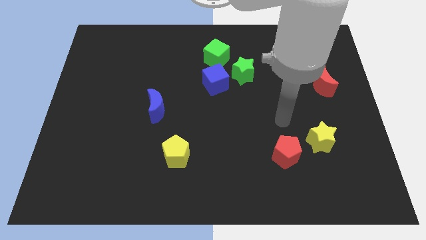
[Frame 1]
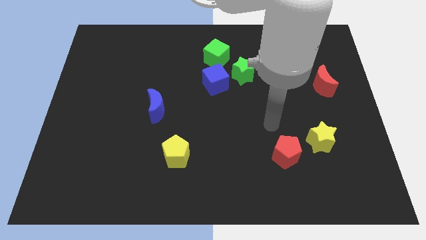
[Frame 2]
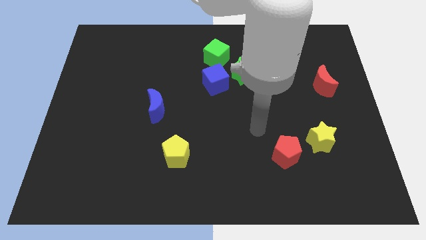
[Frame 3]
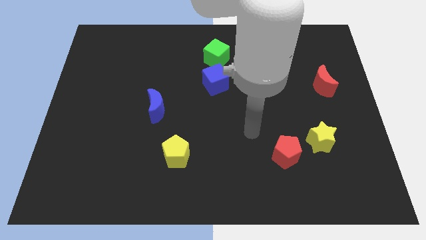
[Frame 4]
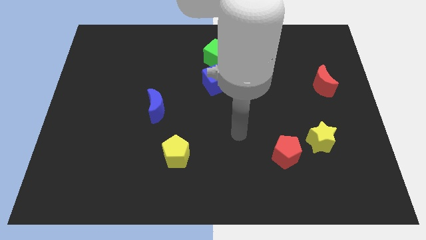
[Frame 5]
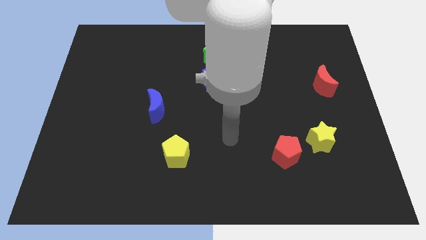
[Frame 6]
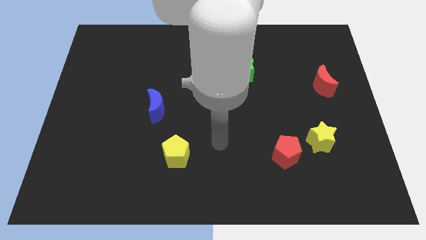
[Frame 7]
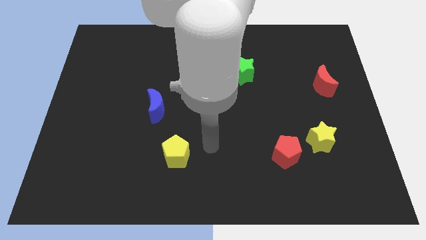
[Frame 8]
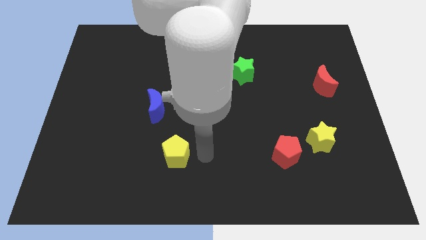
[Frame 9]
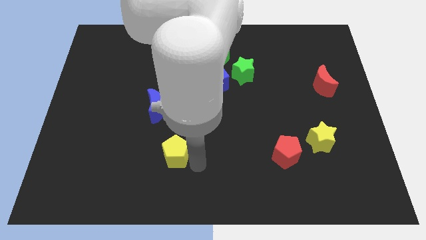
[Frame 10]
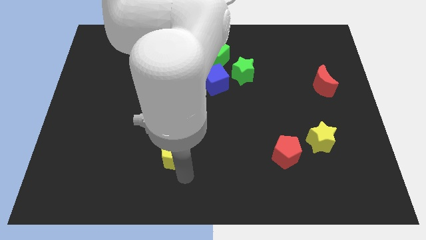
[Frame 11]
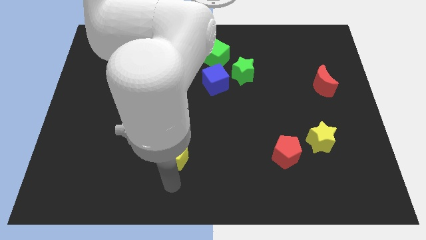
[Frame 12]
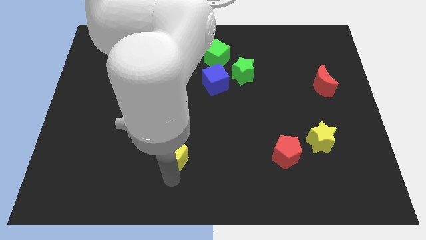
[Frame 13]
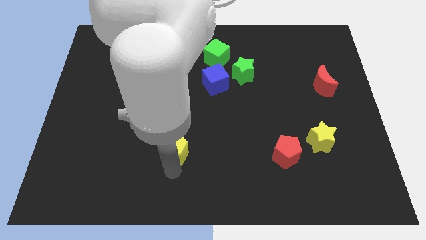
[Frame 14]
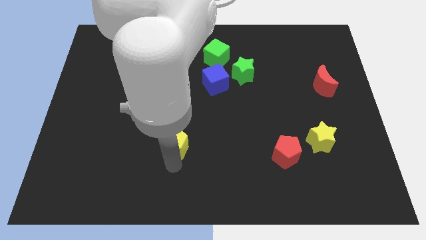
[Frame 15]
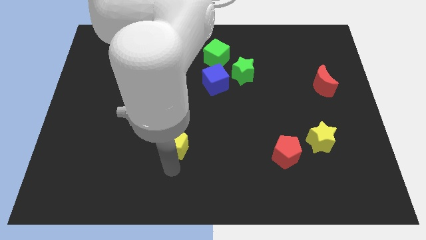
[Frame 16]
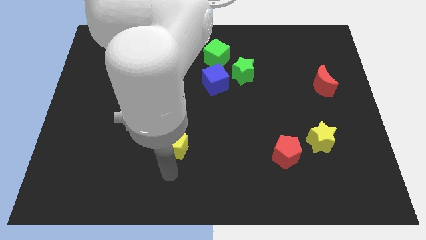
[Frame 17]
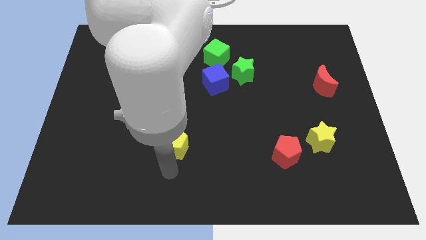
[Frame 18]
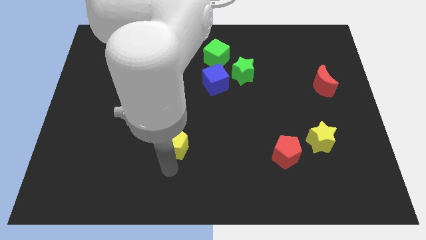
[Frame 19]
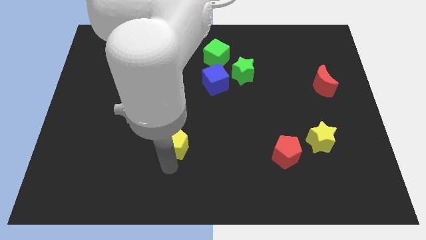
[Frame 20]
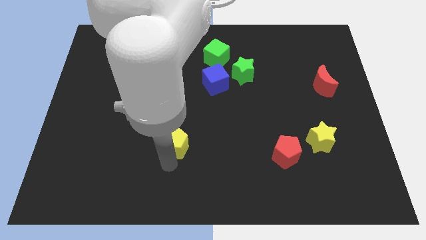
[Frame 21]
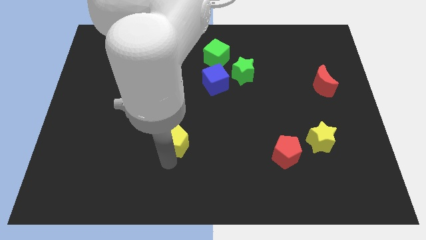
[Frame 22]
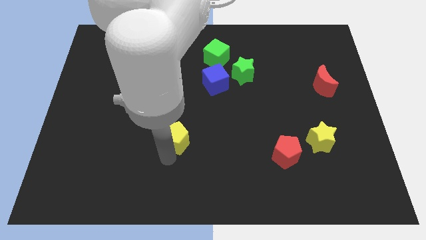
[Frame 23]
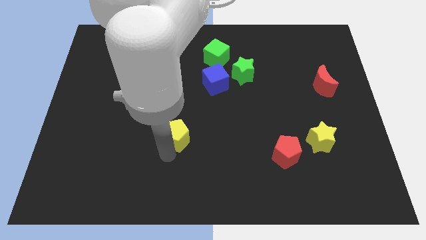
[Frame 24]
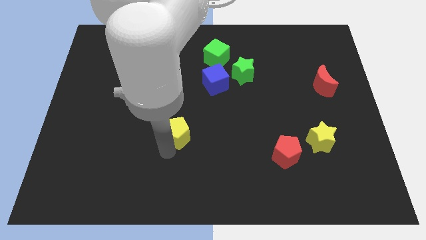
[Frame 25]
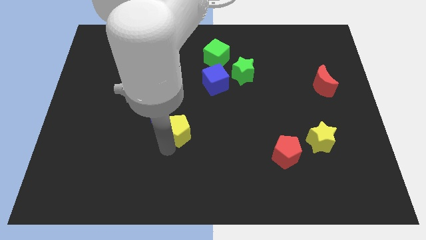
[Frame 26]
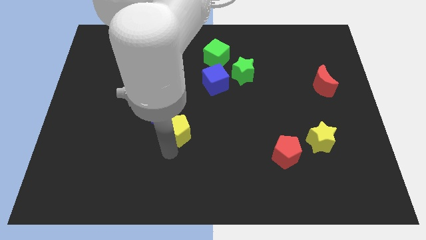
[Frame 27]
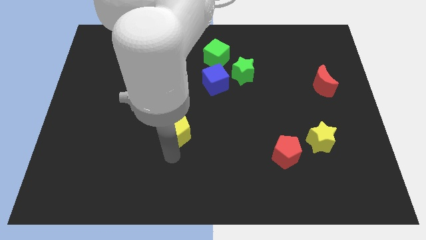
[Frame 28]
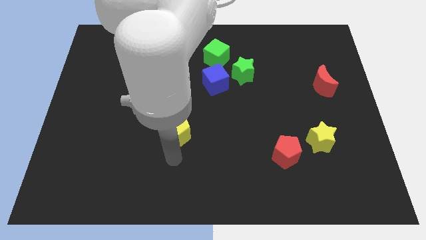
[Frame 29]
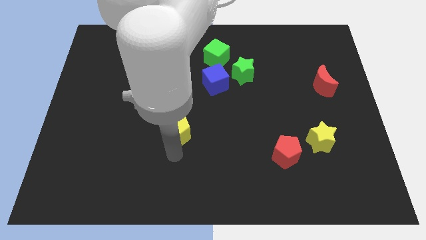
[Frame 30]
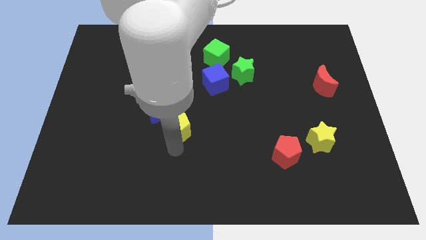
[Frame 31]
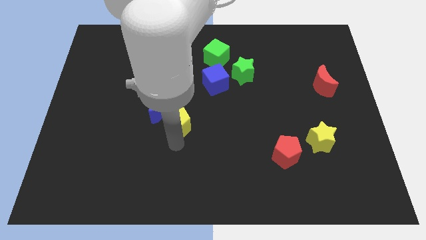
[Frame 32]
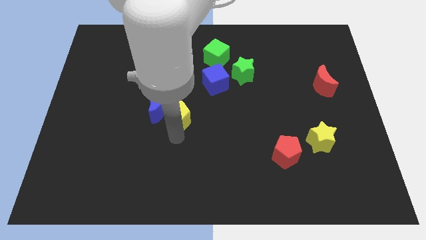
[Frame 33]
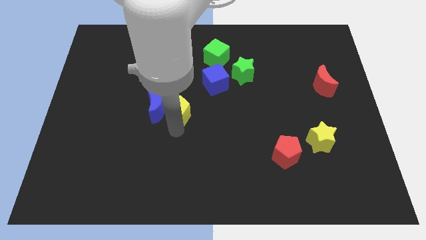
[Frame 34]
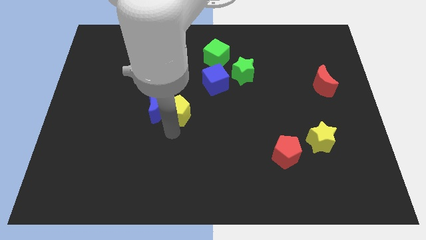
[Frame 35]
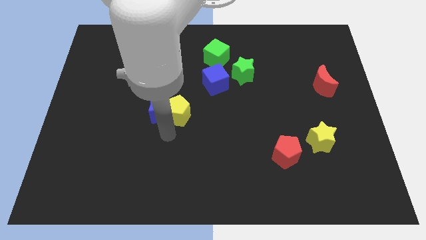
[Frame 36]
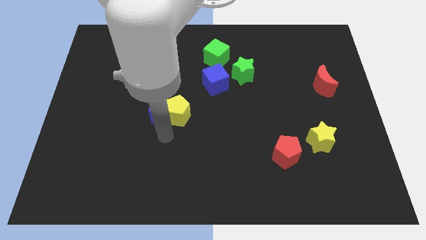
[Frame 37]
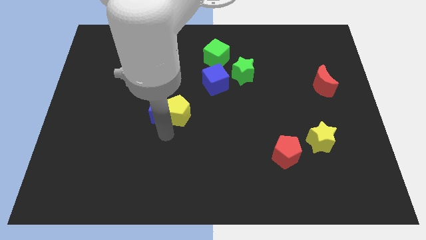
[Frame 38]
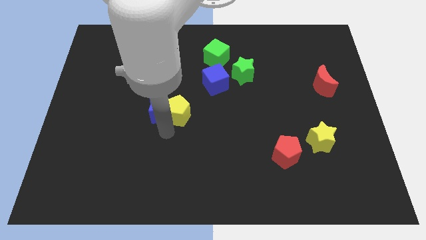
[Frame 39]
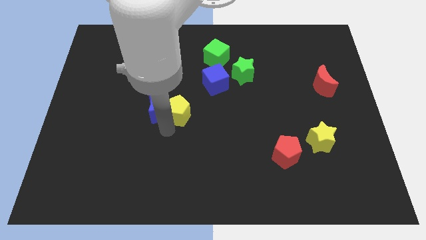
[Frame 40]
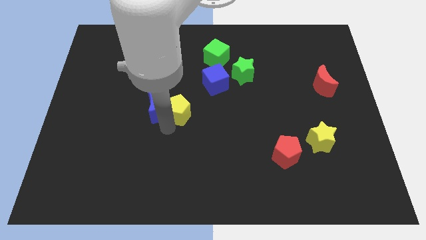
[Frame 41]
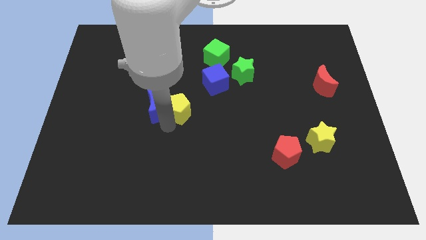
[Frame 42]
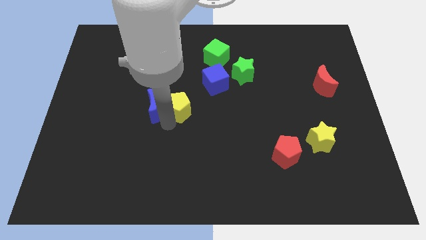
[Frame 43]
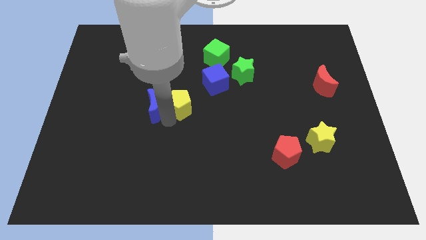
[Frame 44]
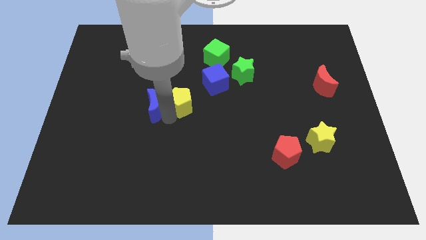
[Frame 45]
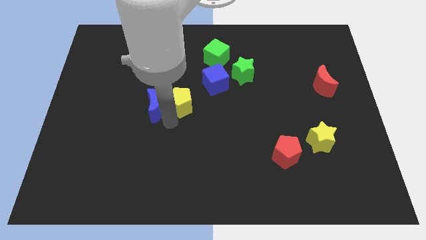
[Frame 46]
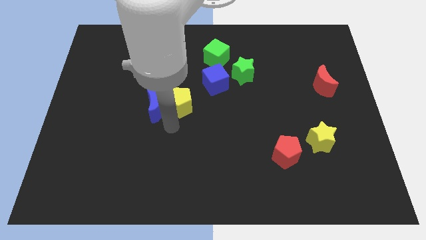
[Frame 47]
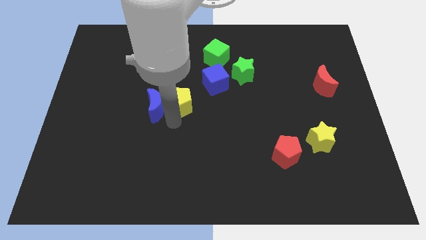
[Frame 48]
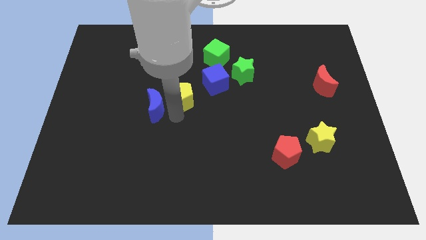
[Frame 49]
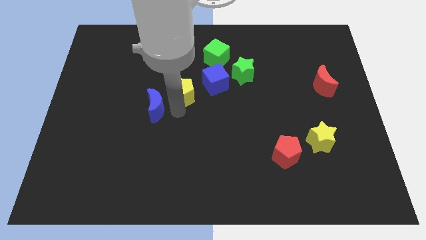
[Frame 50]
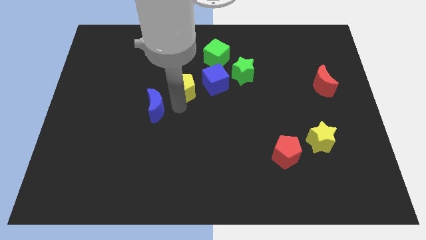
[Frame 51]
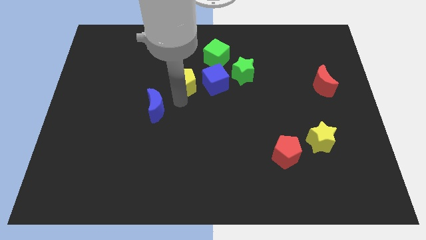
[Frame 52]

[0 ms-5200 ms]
put the yellow pentagon to the bottom left of the green cube

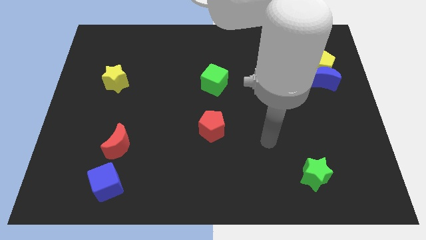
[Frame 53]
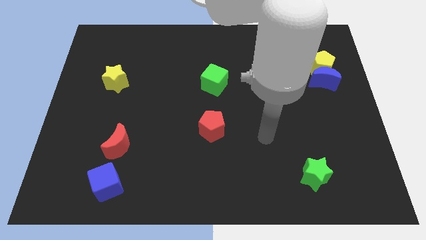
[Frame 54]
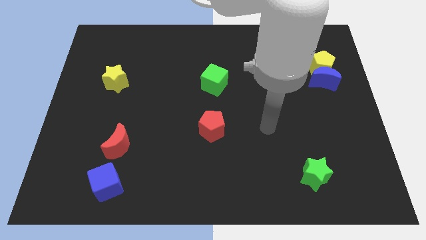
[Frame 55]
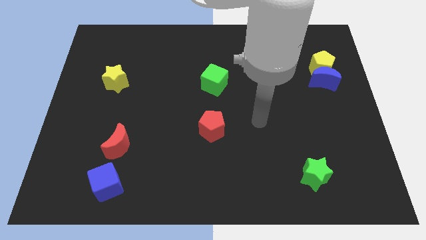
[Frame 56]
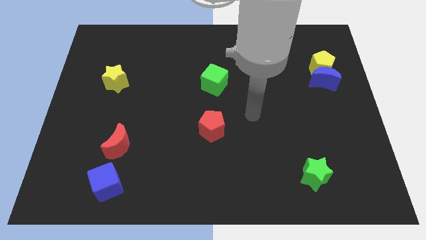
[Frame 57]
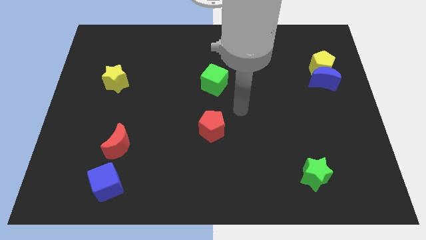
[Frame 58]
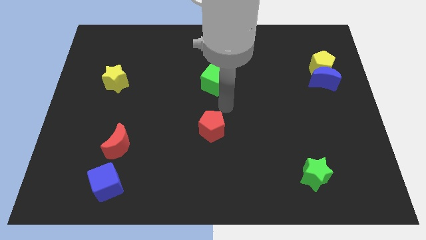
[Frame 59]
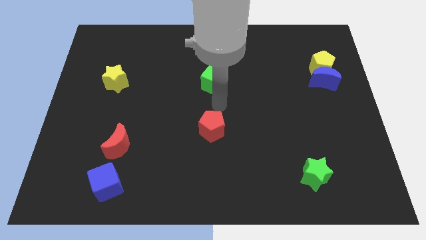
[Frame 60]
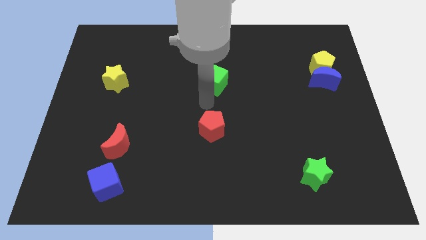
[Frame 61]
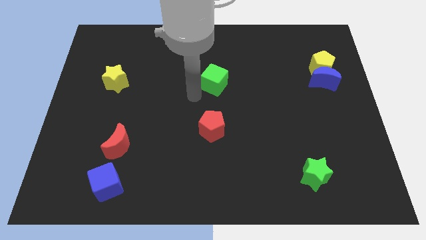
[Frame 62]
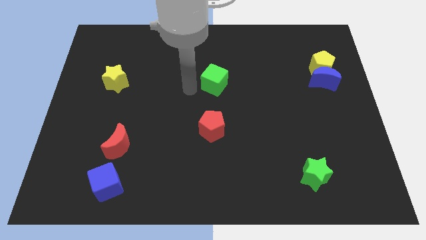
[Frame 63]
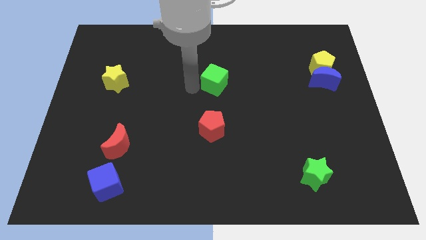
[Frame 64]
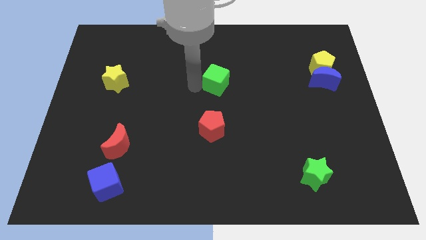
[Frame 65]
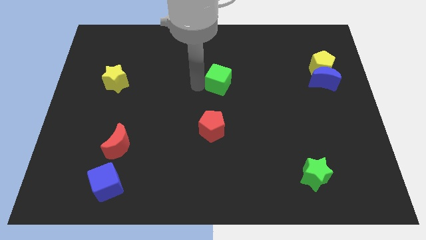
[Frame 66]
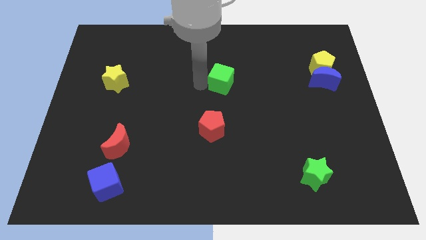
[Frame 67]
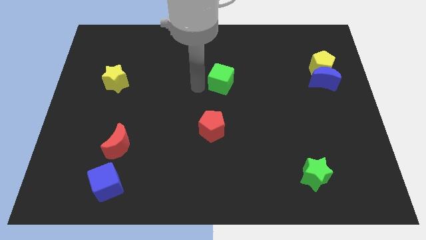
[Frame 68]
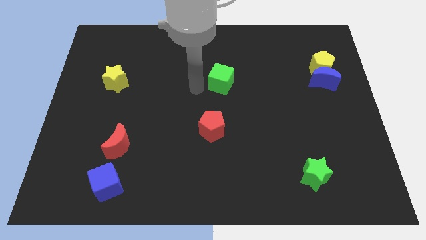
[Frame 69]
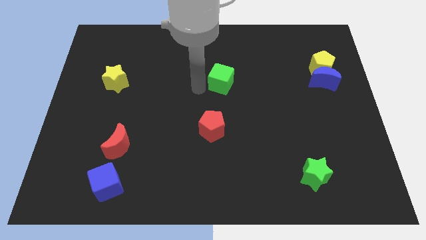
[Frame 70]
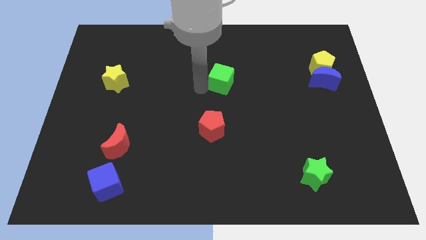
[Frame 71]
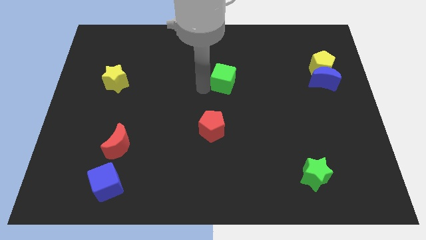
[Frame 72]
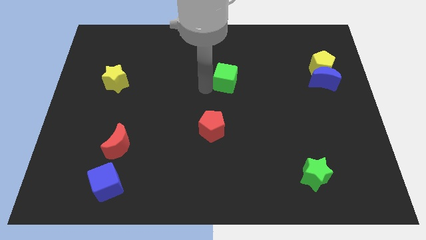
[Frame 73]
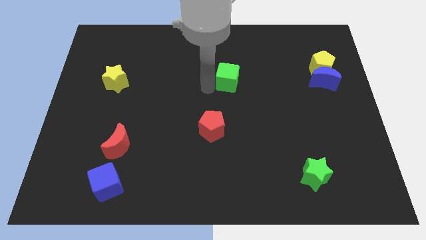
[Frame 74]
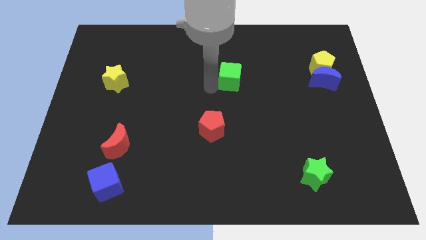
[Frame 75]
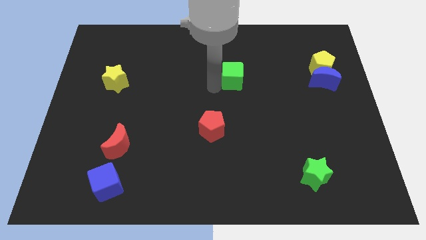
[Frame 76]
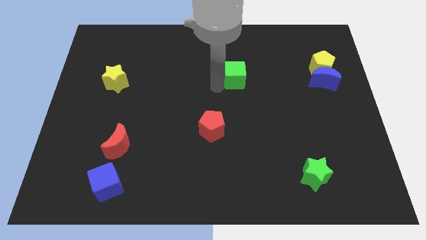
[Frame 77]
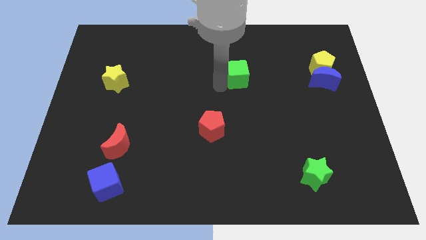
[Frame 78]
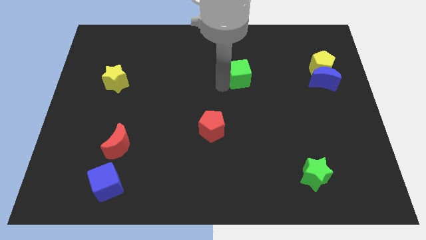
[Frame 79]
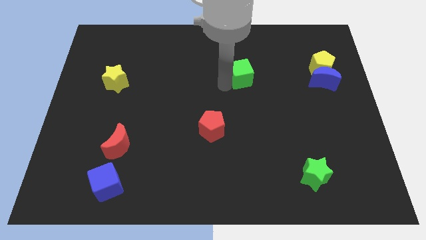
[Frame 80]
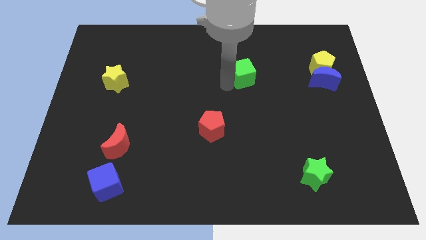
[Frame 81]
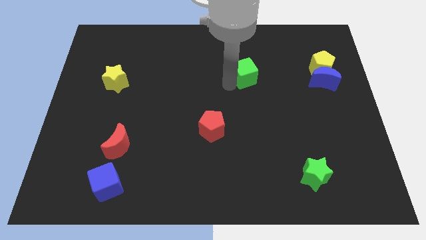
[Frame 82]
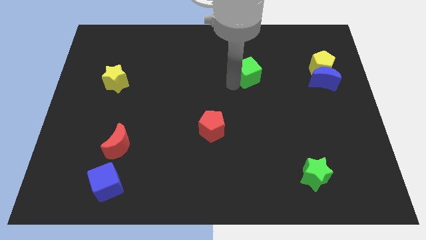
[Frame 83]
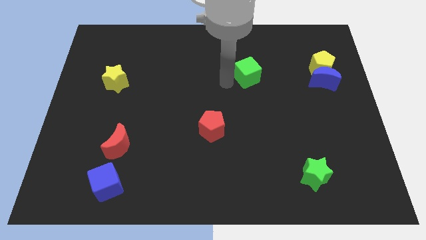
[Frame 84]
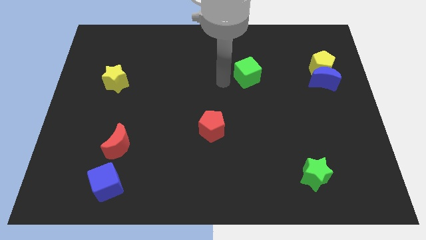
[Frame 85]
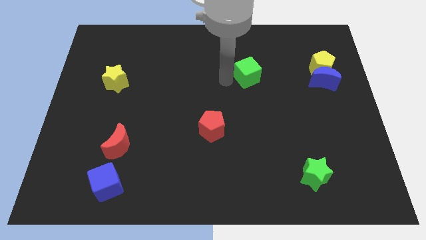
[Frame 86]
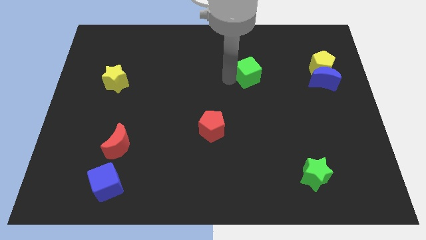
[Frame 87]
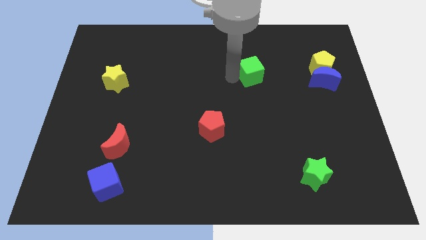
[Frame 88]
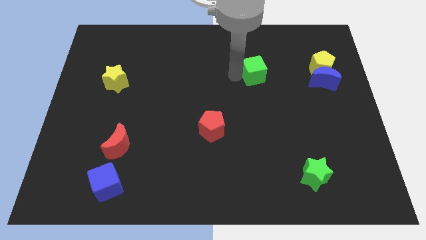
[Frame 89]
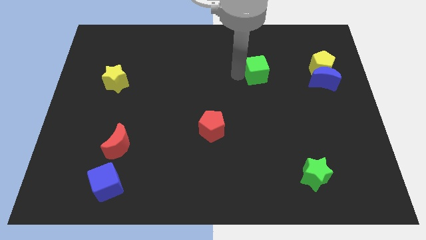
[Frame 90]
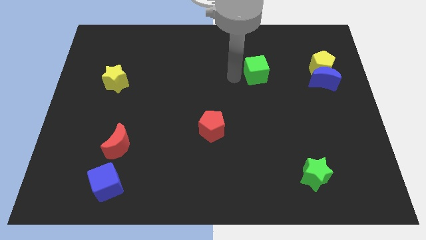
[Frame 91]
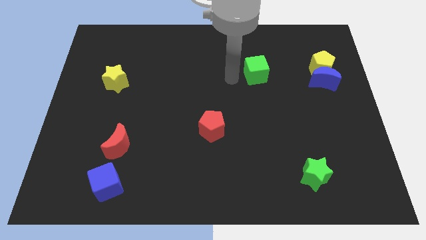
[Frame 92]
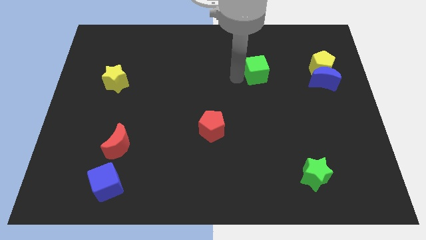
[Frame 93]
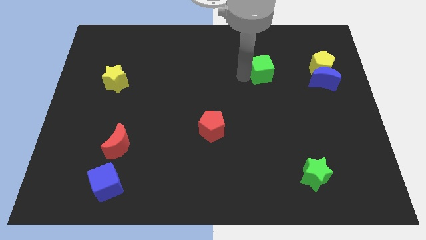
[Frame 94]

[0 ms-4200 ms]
move the green cube just left of the yellow pentagon
